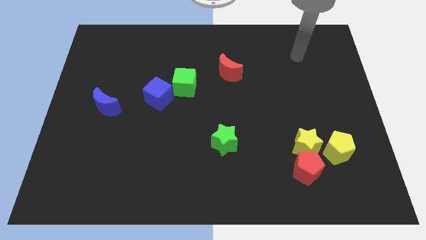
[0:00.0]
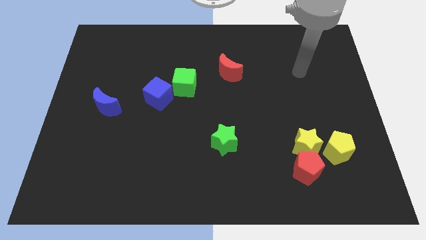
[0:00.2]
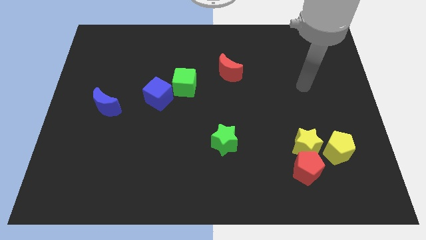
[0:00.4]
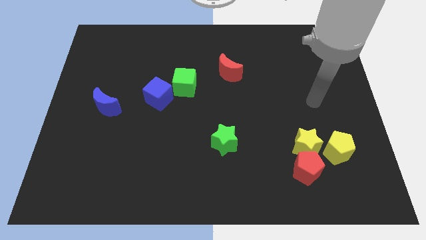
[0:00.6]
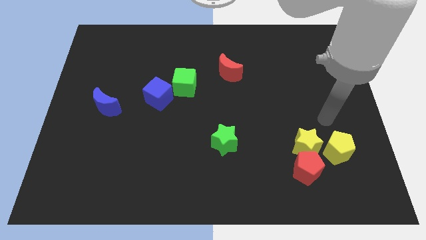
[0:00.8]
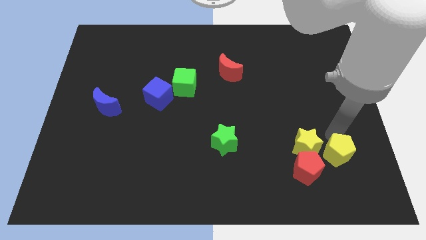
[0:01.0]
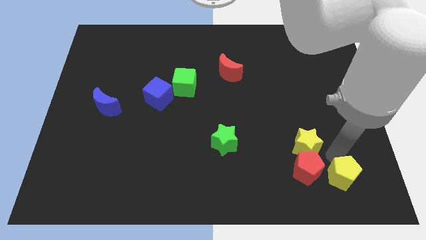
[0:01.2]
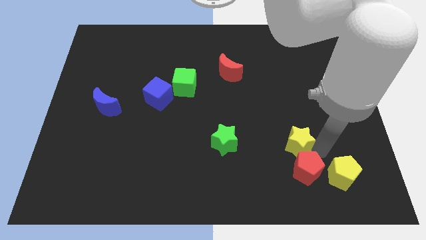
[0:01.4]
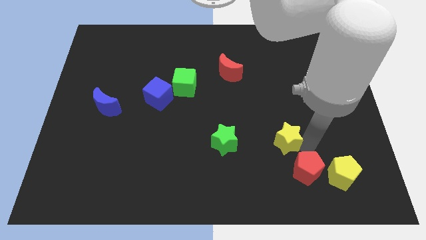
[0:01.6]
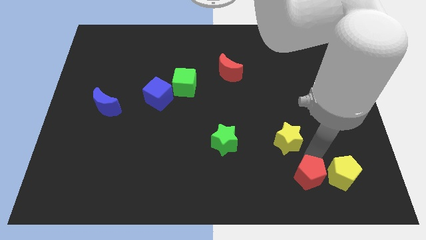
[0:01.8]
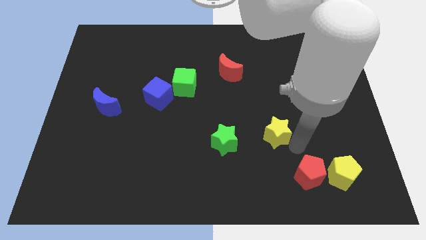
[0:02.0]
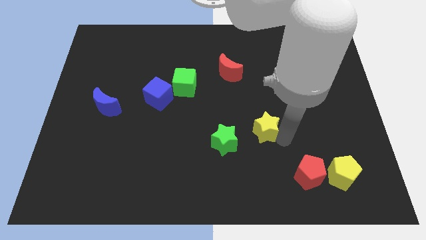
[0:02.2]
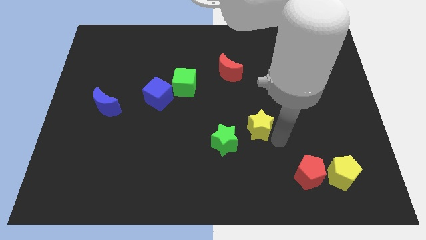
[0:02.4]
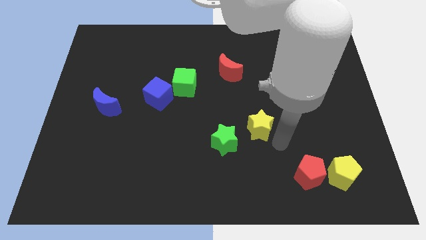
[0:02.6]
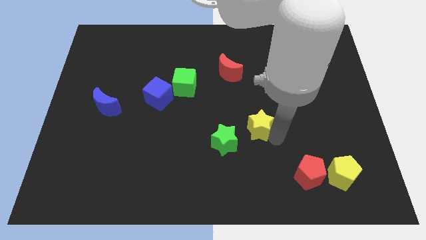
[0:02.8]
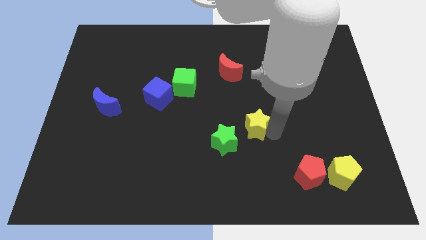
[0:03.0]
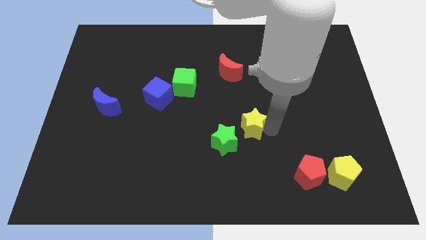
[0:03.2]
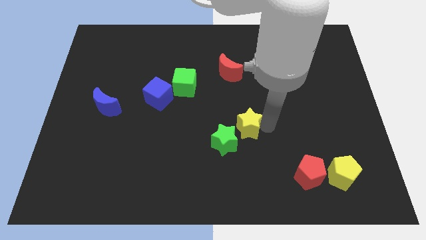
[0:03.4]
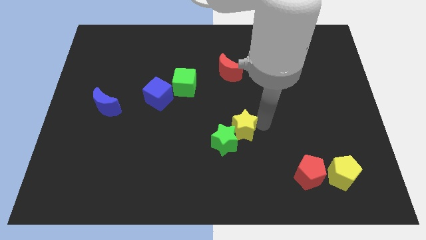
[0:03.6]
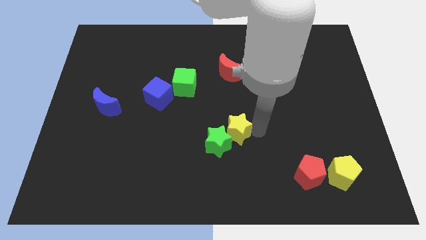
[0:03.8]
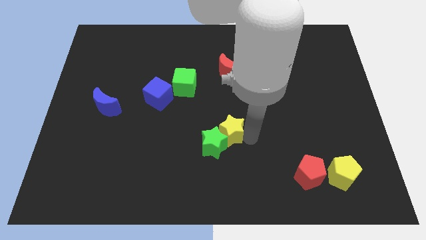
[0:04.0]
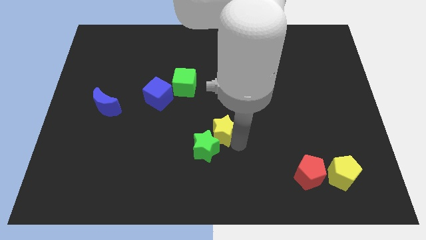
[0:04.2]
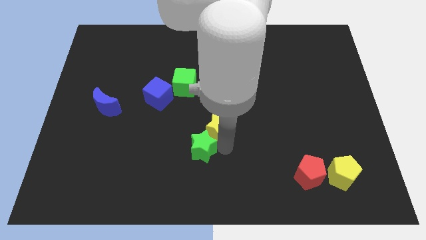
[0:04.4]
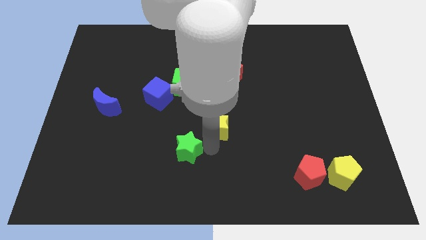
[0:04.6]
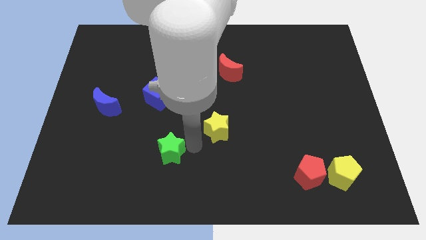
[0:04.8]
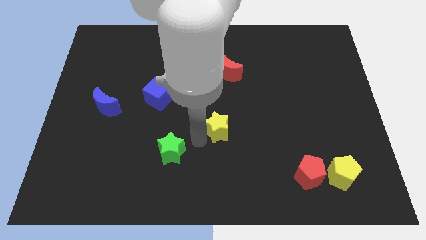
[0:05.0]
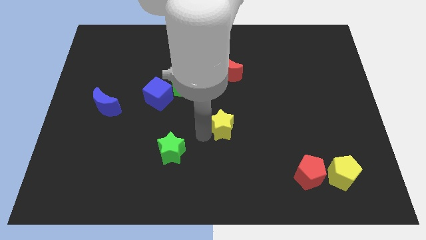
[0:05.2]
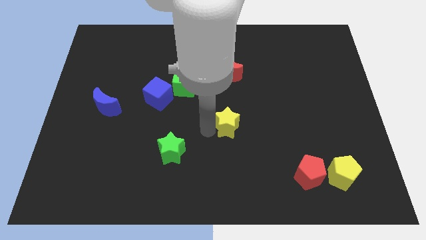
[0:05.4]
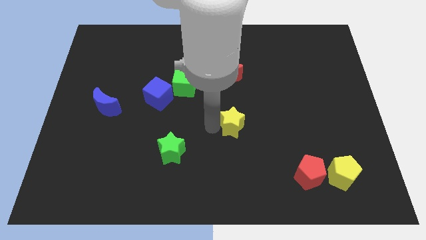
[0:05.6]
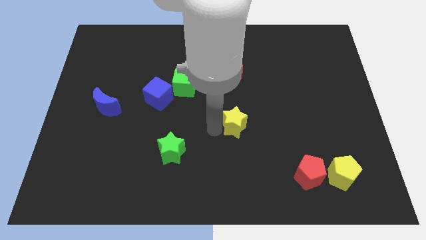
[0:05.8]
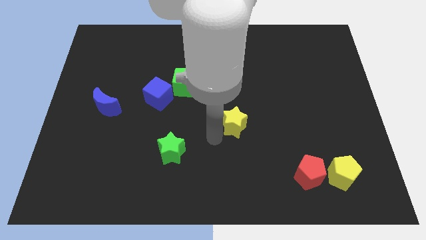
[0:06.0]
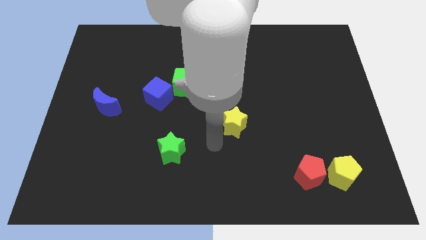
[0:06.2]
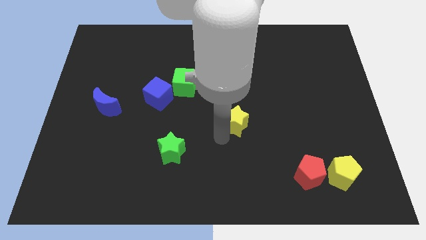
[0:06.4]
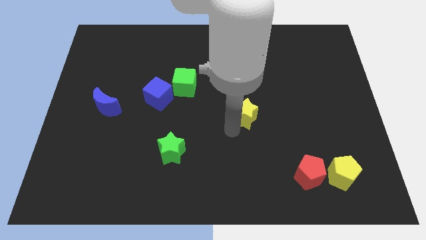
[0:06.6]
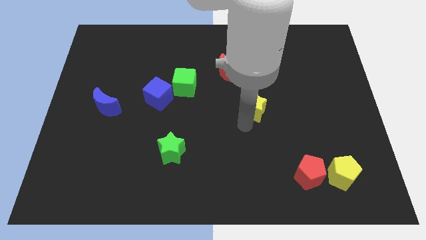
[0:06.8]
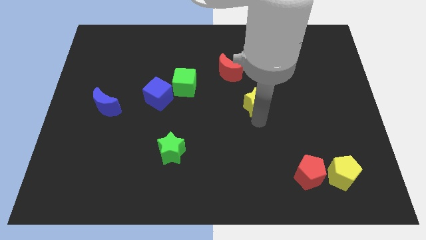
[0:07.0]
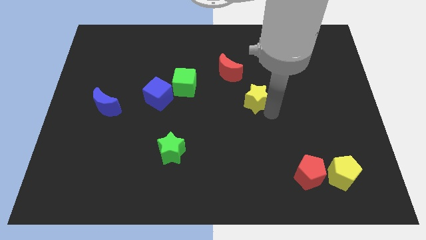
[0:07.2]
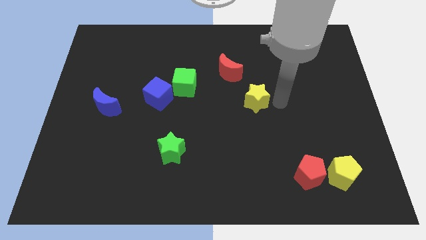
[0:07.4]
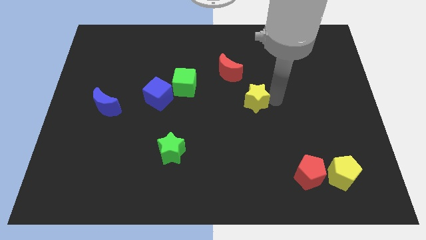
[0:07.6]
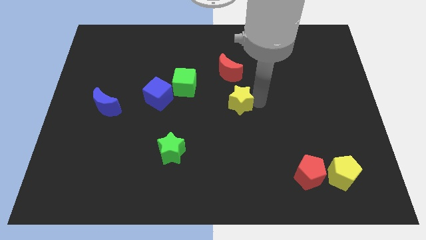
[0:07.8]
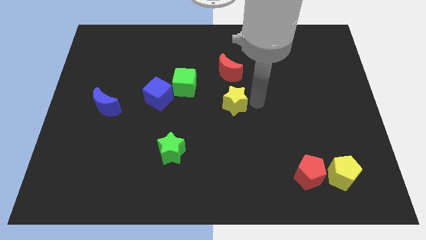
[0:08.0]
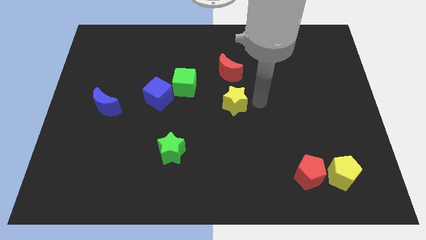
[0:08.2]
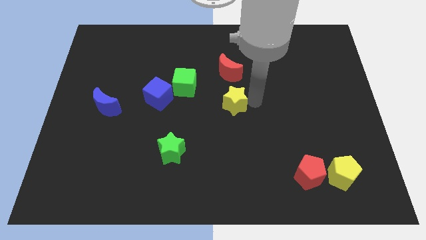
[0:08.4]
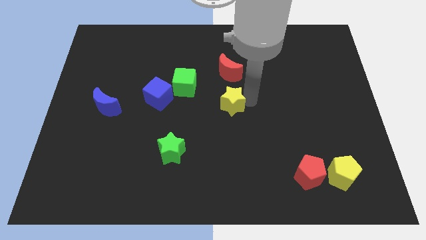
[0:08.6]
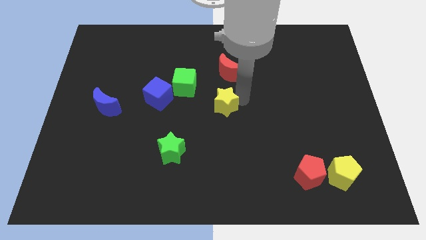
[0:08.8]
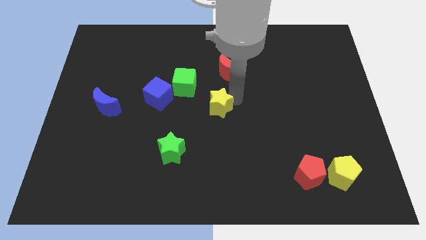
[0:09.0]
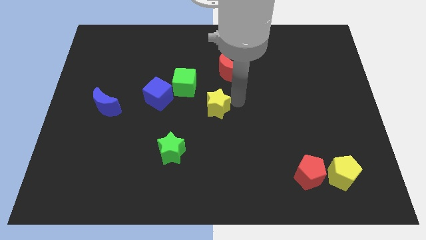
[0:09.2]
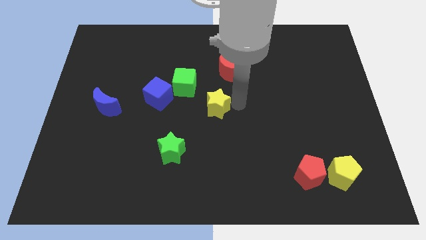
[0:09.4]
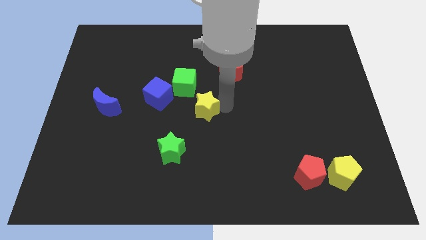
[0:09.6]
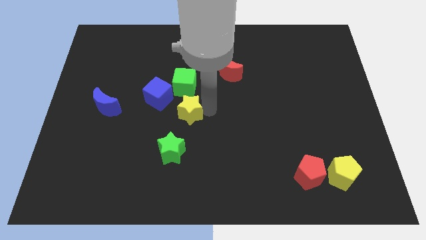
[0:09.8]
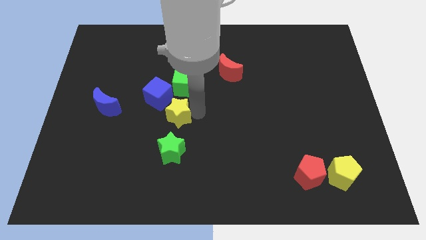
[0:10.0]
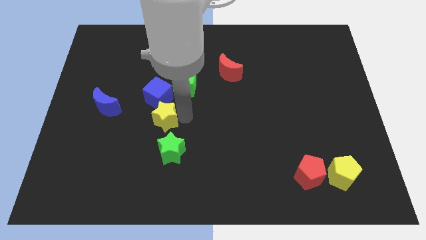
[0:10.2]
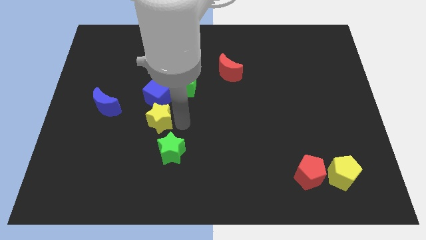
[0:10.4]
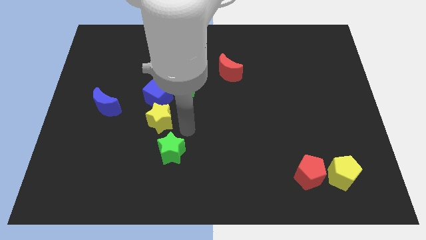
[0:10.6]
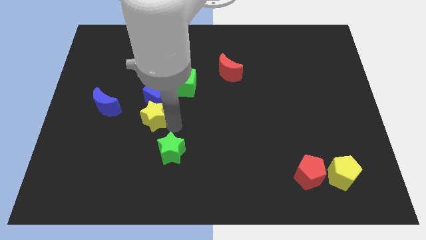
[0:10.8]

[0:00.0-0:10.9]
push the yellow star diagonally down and to the left of the blue cube

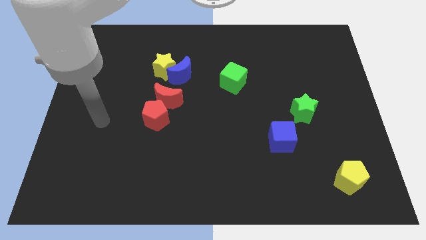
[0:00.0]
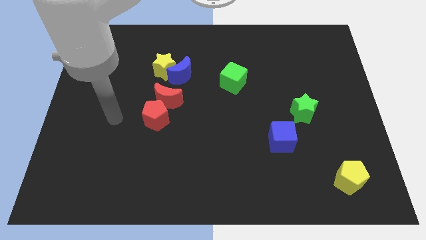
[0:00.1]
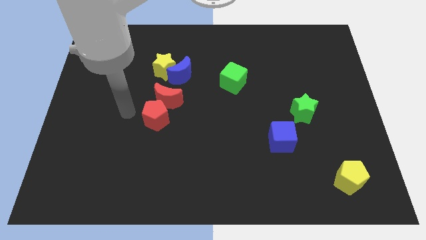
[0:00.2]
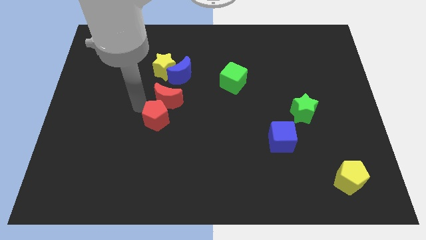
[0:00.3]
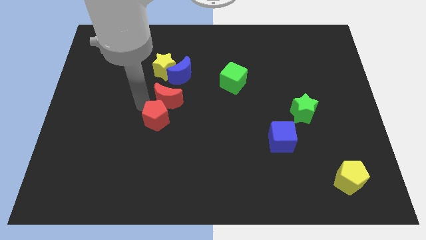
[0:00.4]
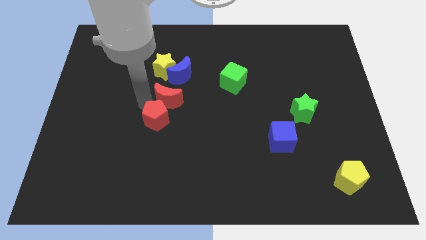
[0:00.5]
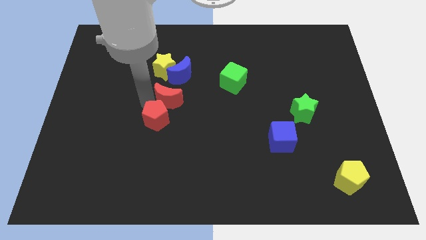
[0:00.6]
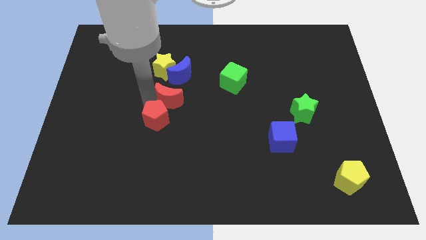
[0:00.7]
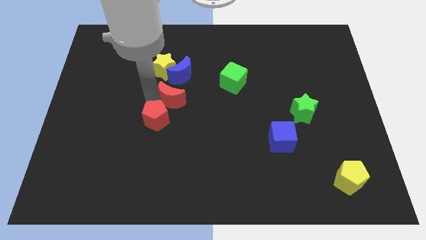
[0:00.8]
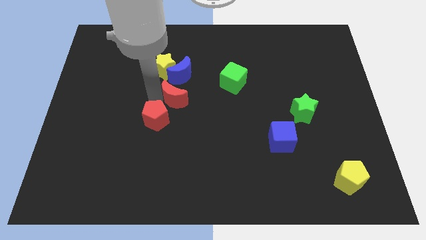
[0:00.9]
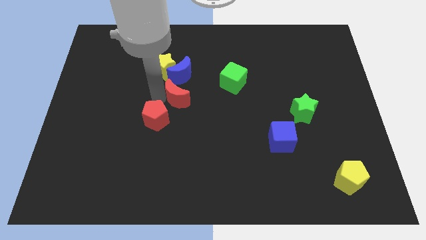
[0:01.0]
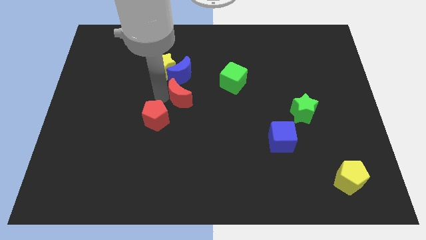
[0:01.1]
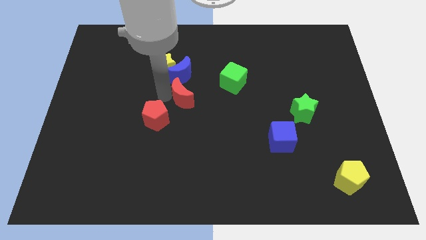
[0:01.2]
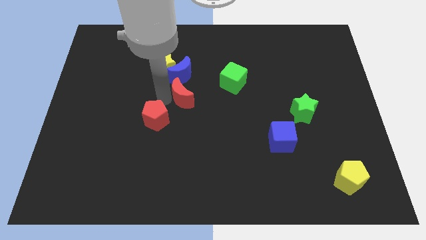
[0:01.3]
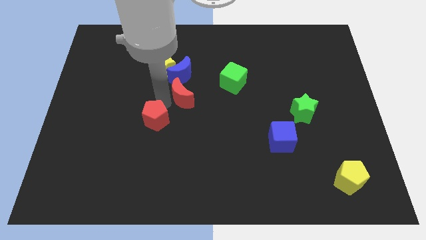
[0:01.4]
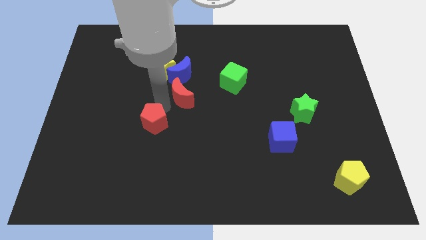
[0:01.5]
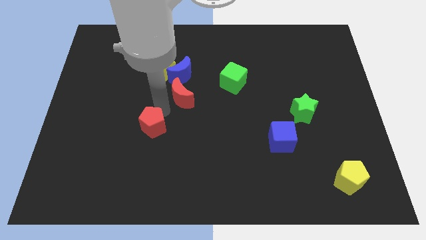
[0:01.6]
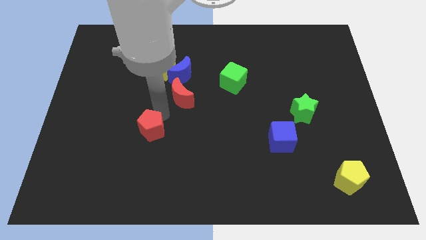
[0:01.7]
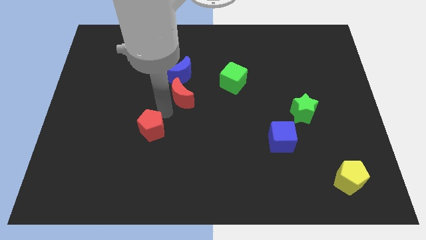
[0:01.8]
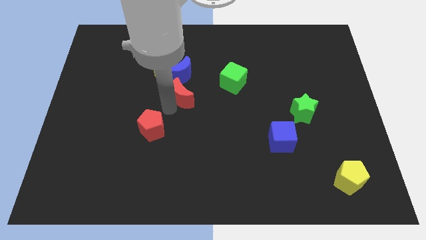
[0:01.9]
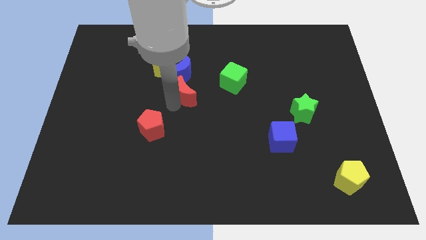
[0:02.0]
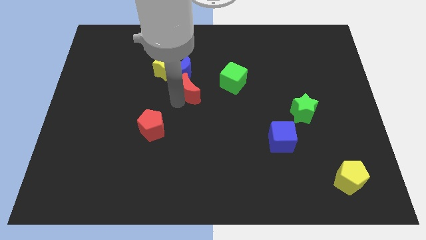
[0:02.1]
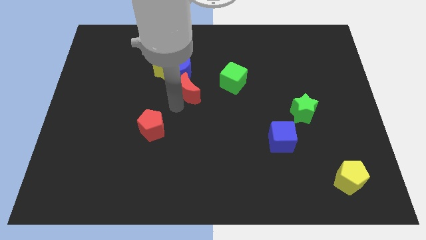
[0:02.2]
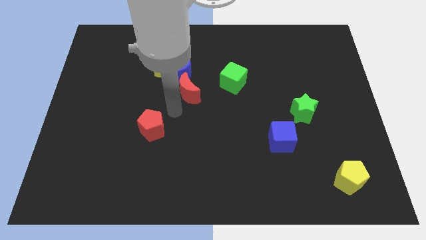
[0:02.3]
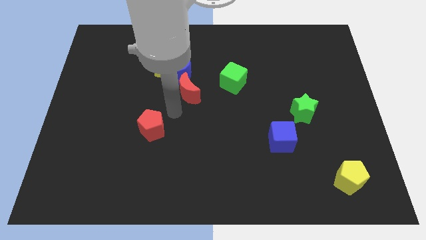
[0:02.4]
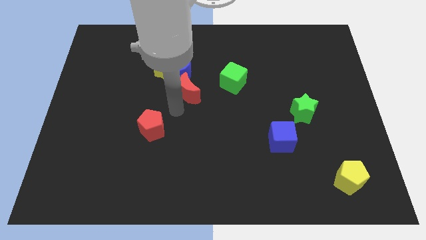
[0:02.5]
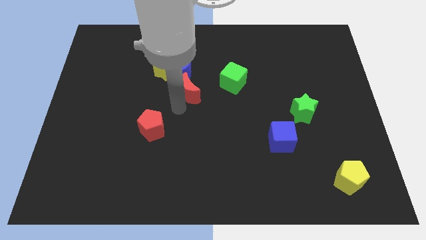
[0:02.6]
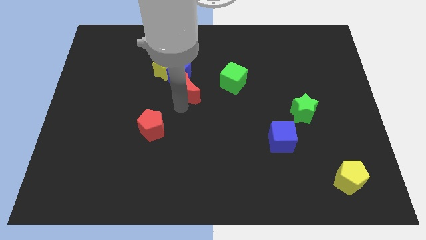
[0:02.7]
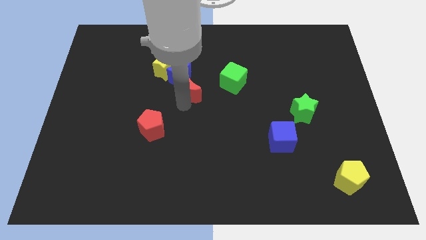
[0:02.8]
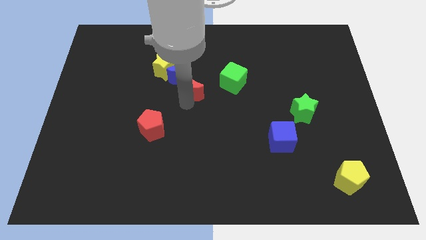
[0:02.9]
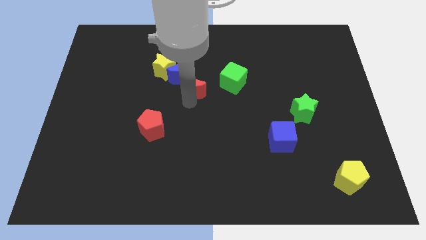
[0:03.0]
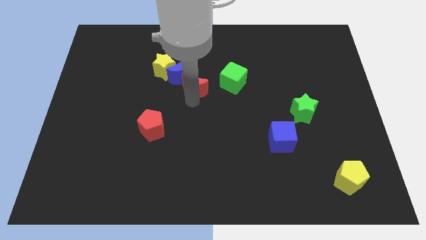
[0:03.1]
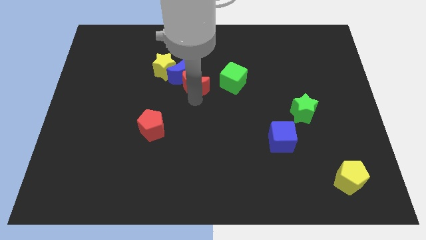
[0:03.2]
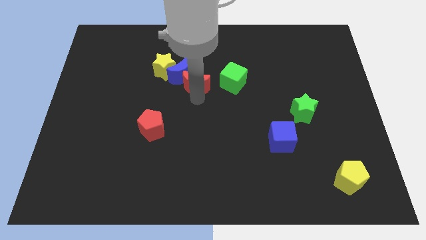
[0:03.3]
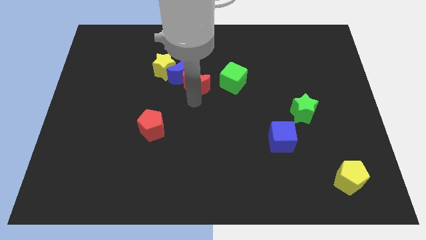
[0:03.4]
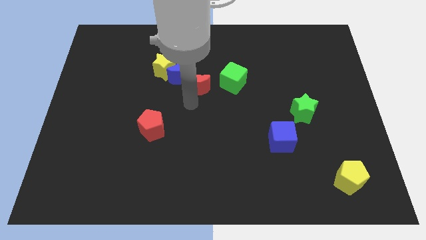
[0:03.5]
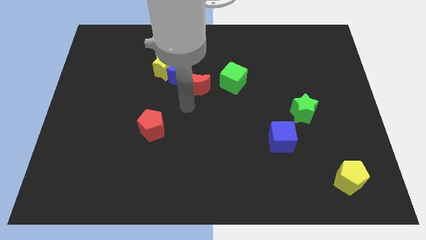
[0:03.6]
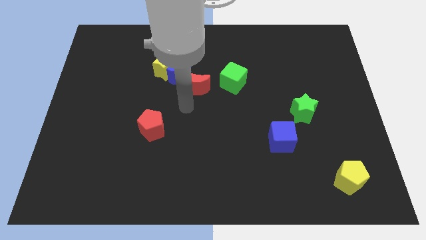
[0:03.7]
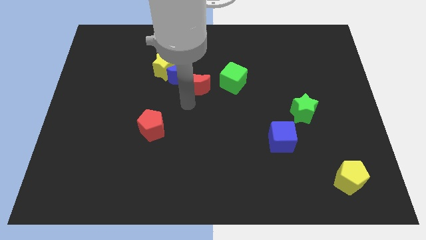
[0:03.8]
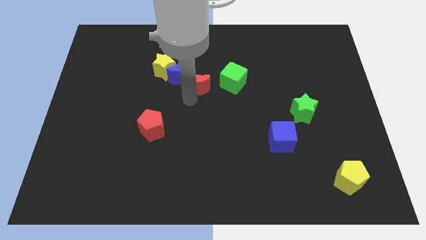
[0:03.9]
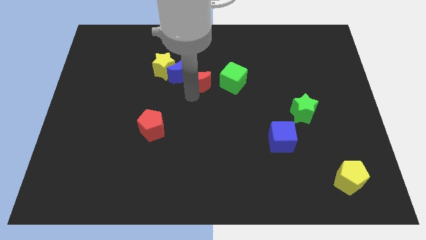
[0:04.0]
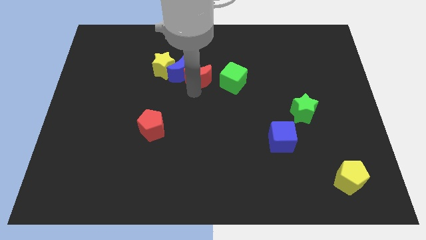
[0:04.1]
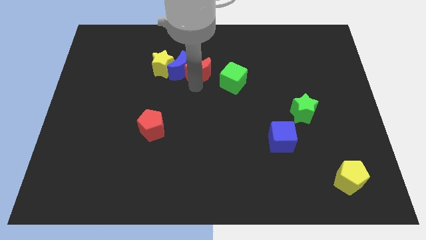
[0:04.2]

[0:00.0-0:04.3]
put the red moon diagonally up and to the left of the green cube
